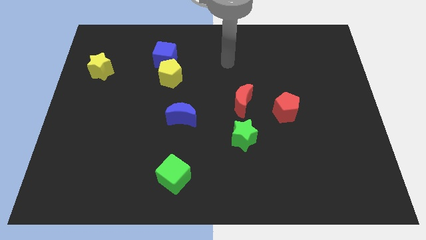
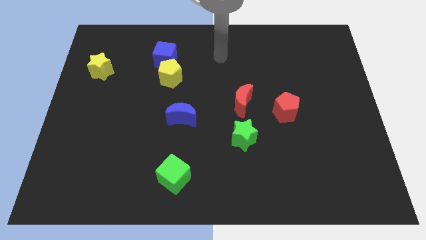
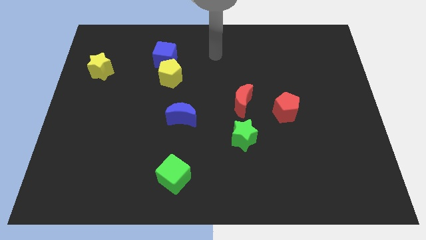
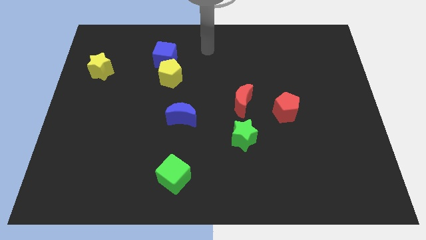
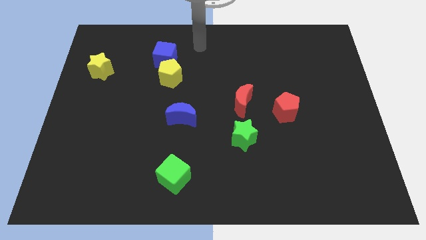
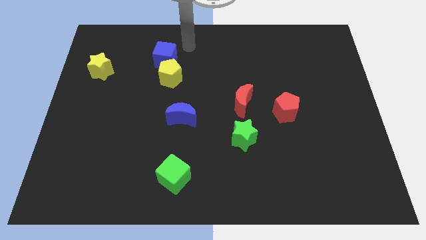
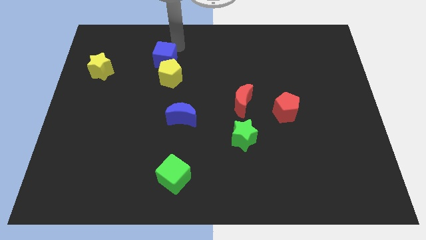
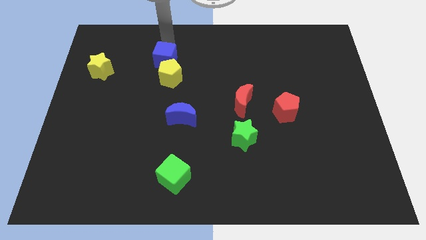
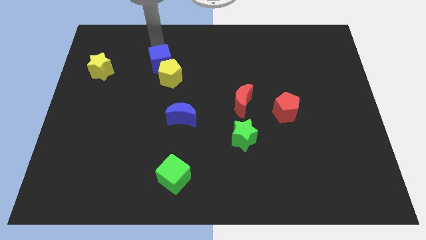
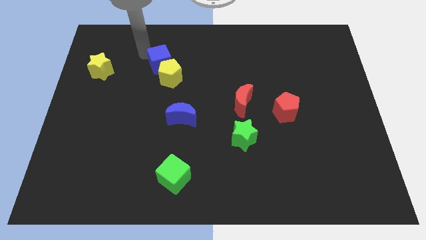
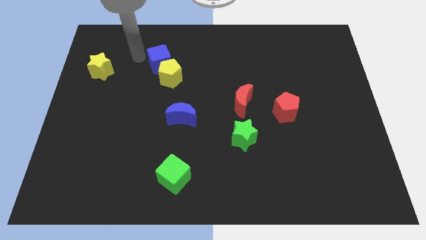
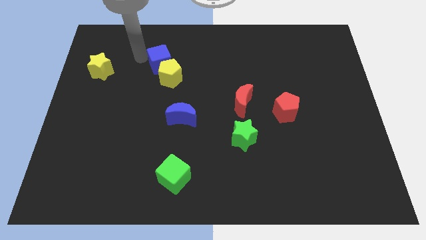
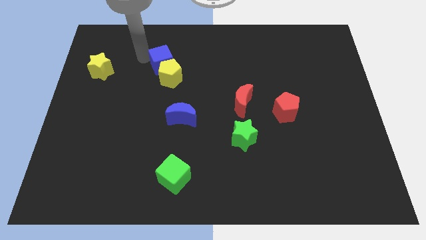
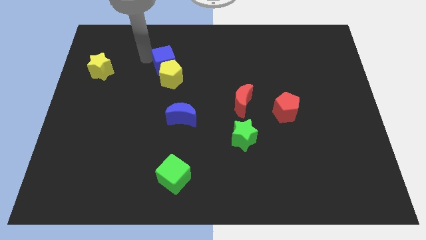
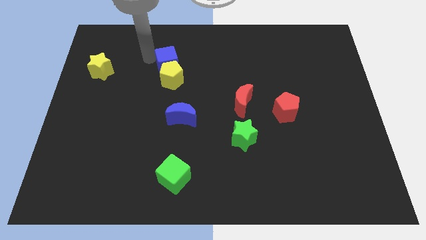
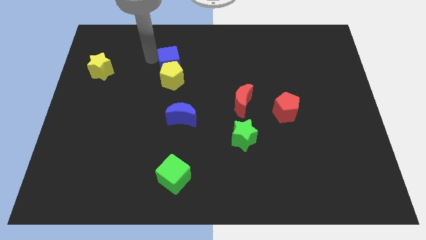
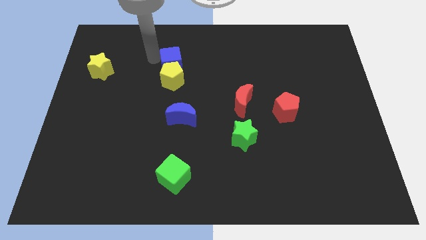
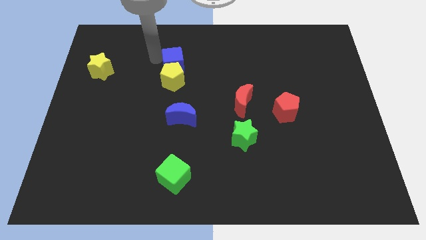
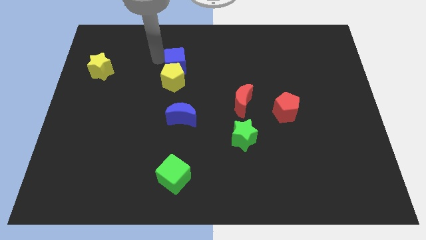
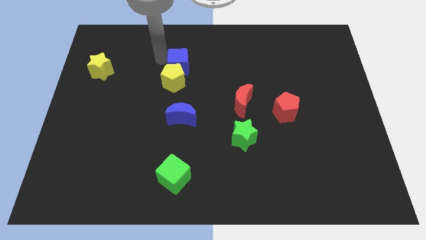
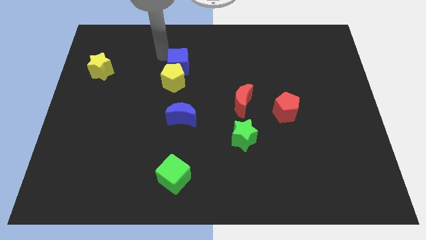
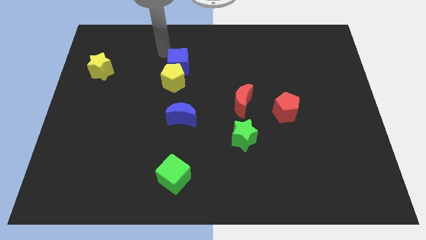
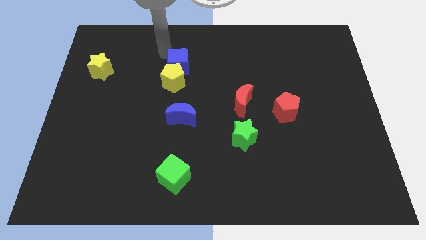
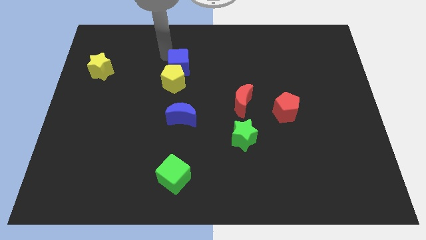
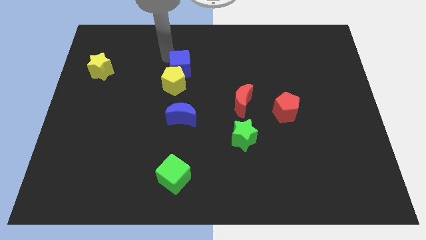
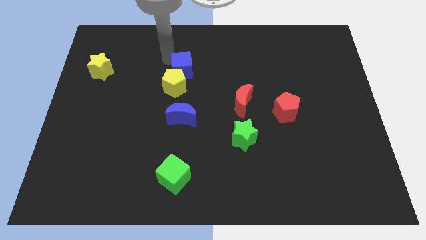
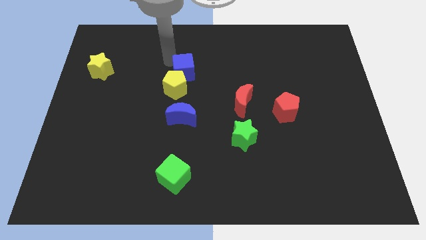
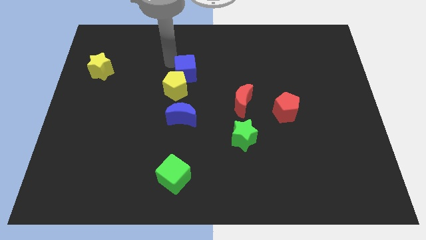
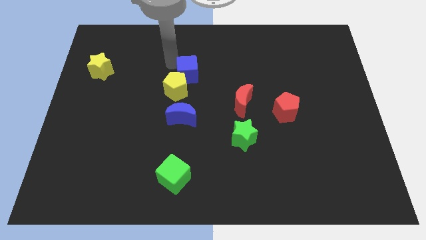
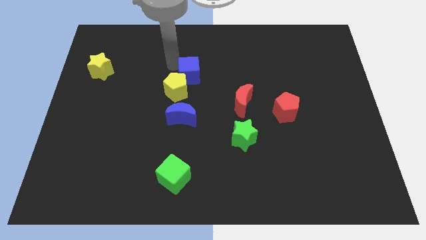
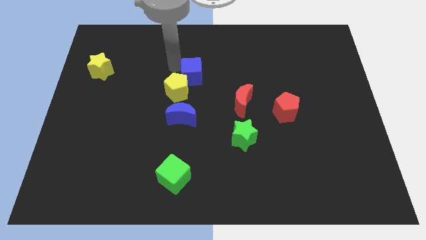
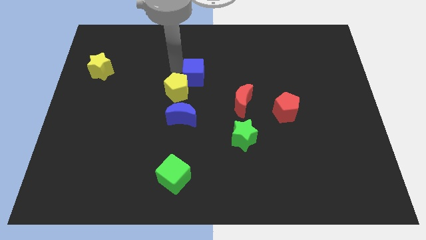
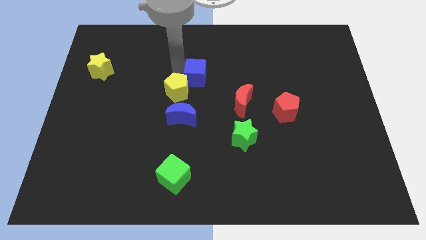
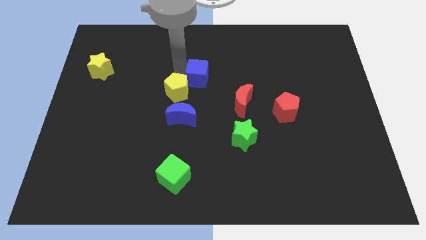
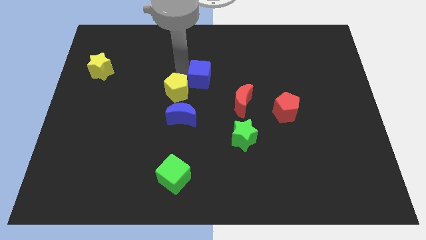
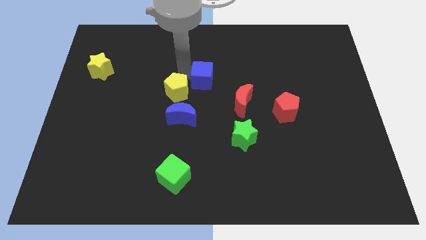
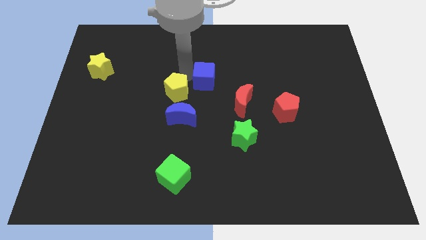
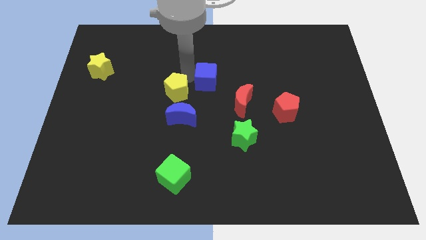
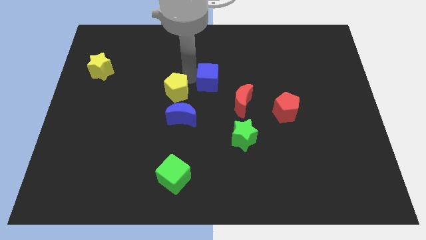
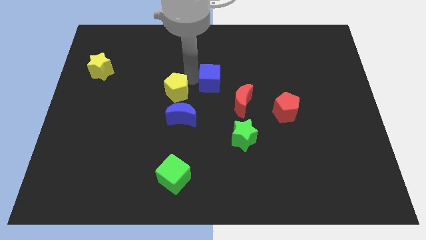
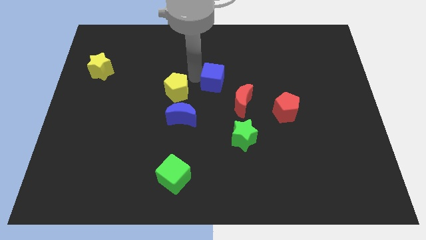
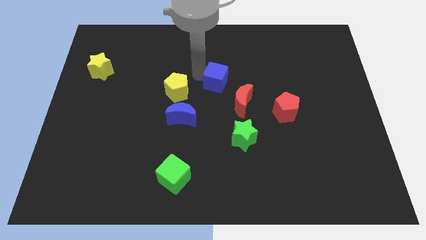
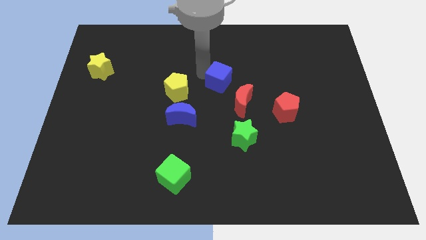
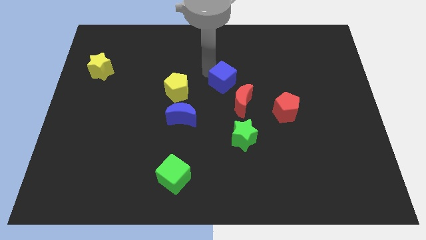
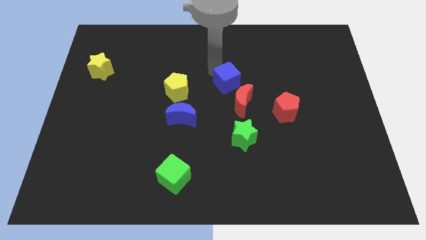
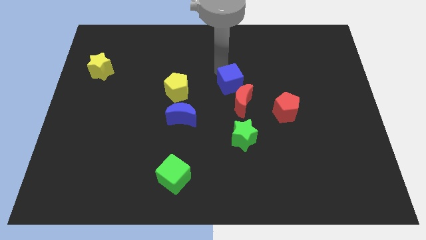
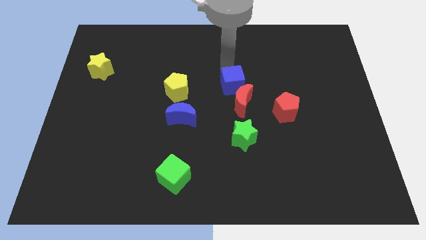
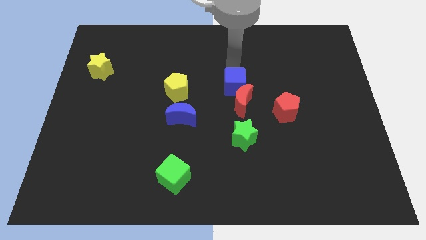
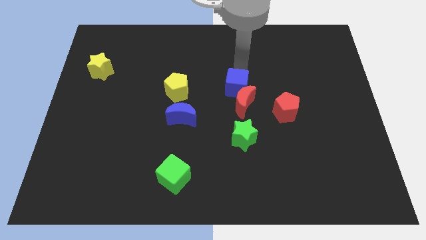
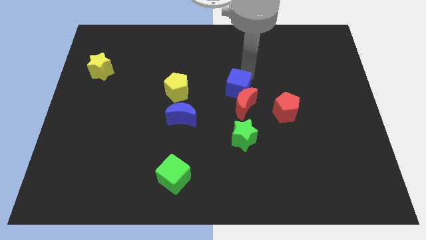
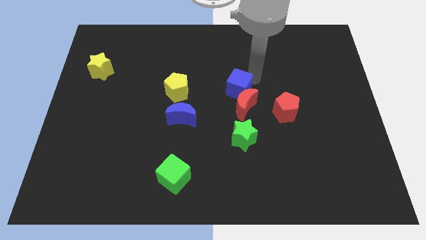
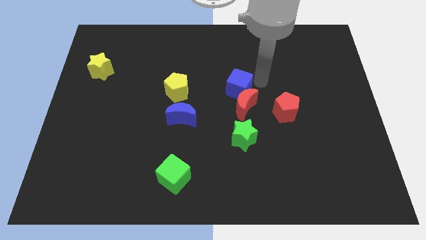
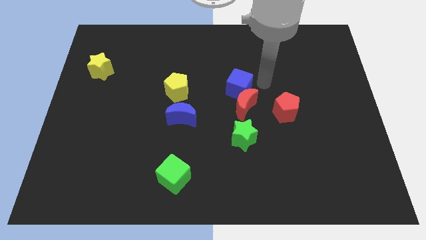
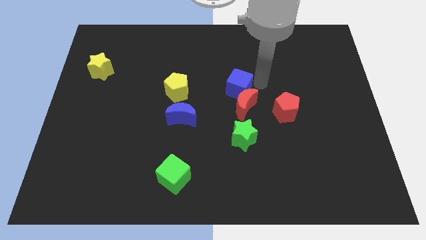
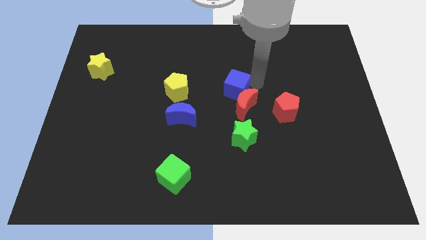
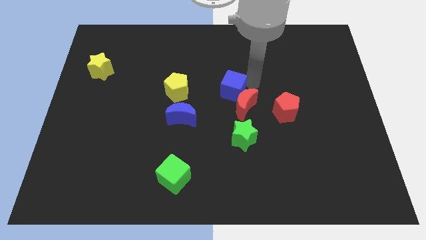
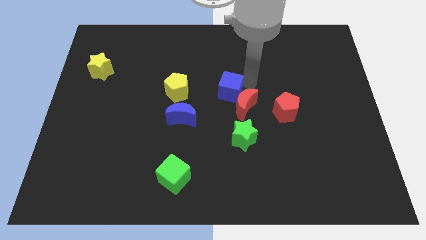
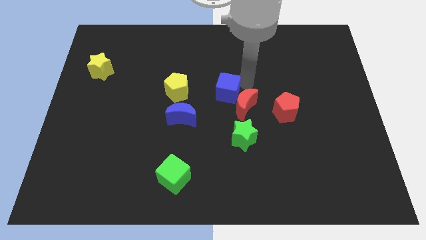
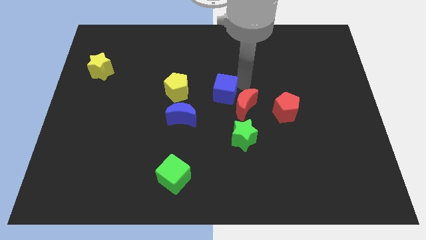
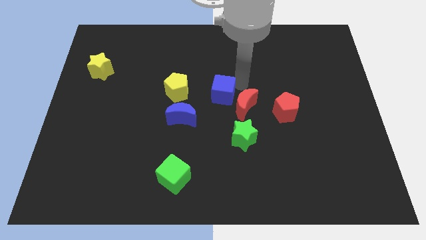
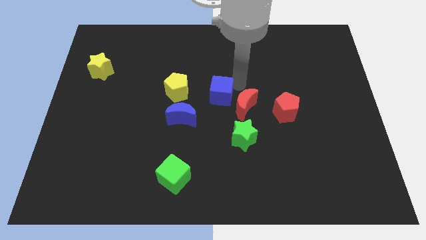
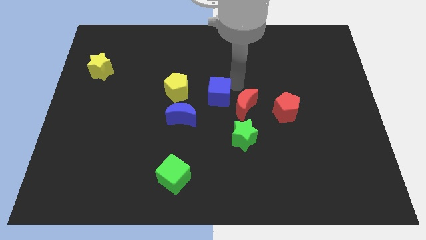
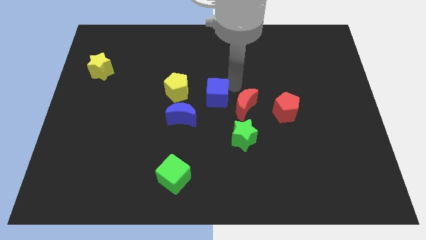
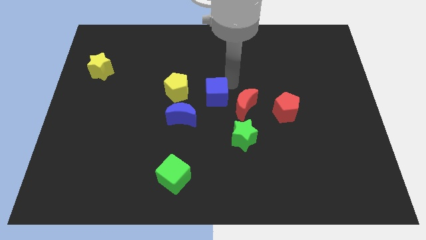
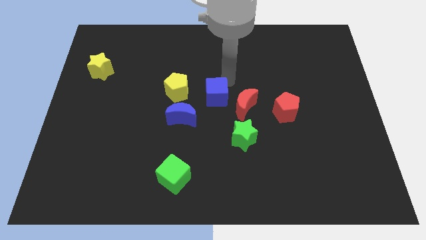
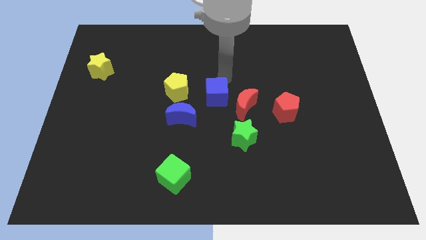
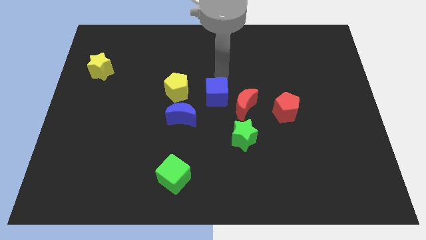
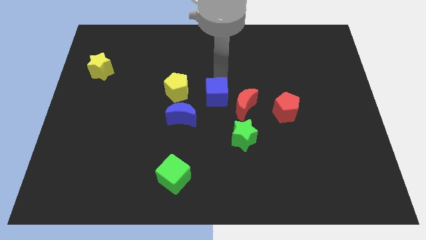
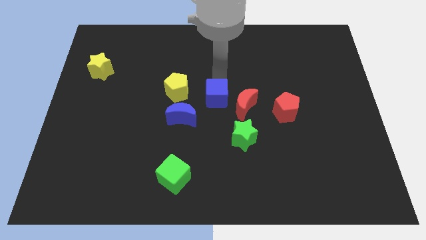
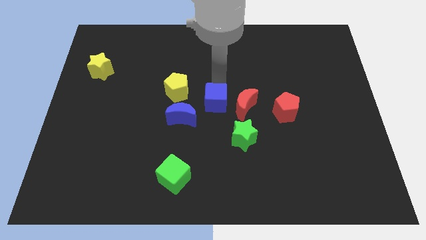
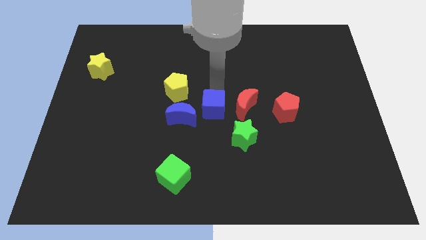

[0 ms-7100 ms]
push the blue cube diagonally down and to the right

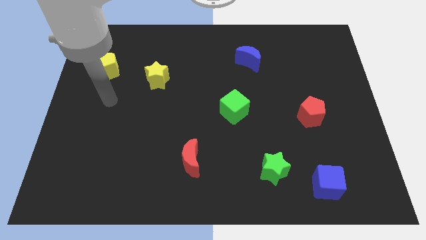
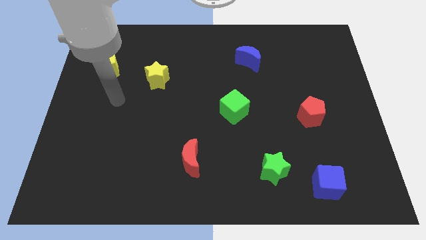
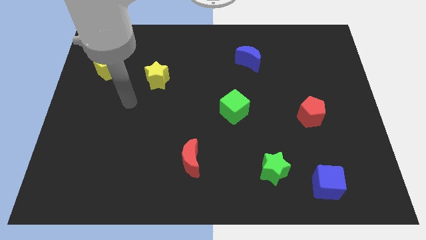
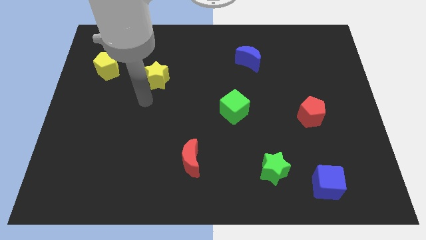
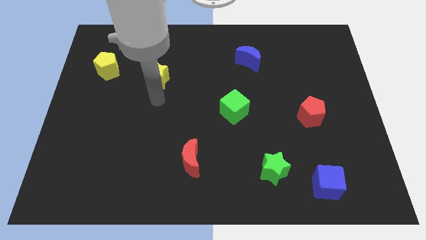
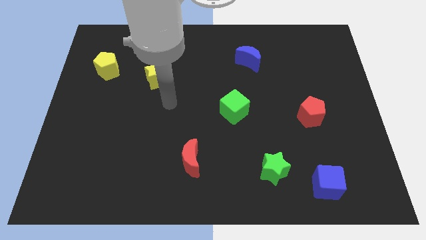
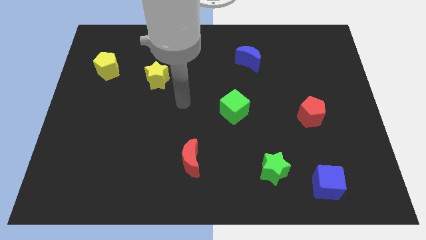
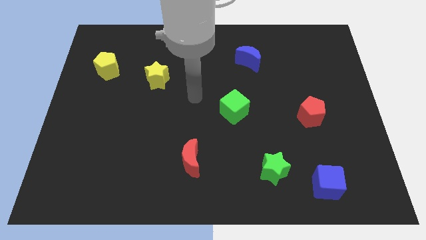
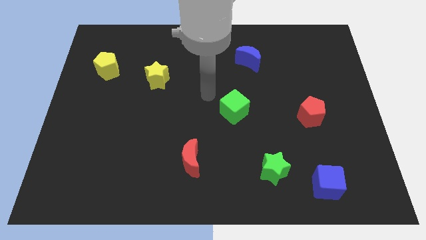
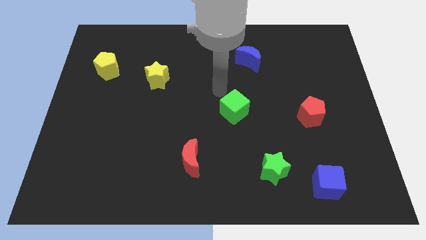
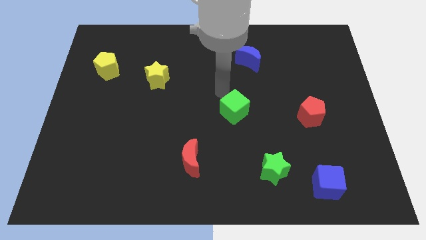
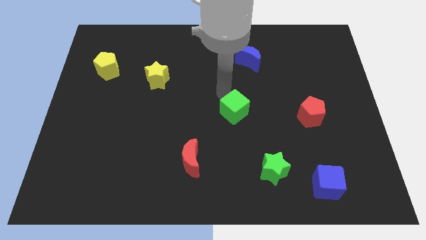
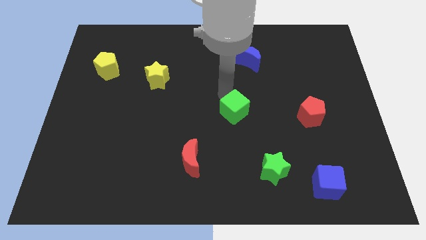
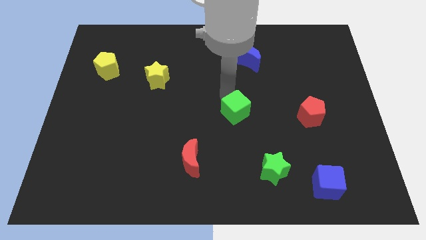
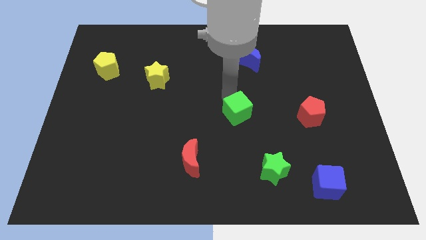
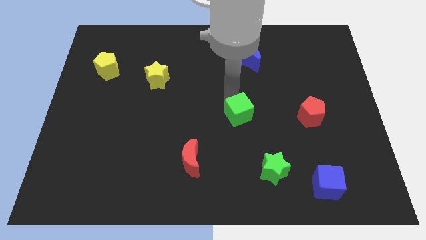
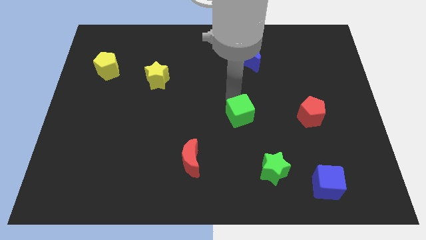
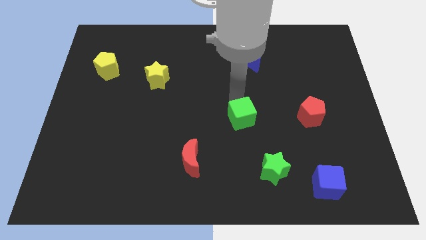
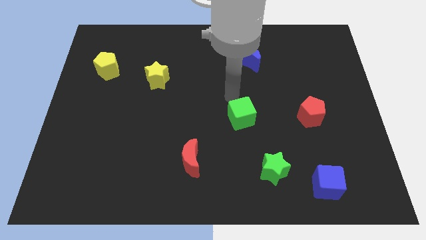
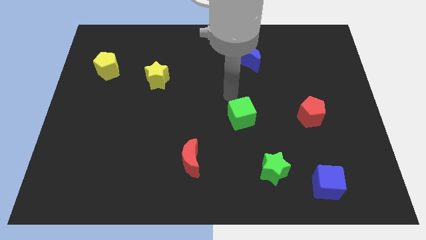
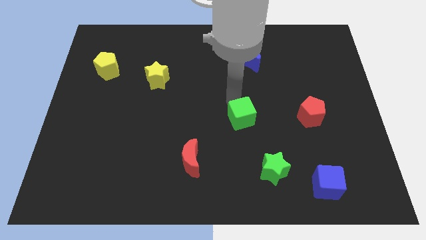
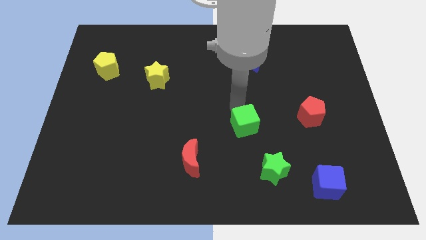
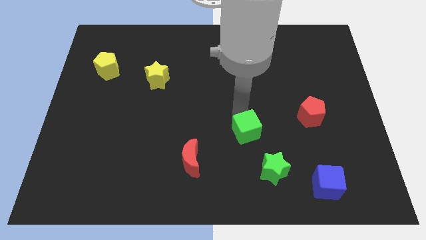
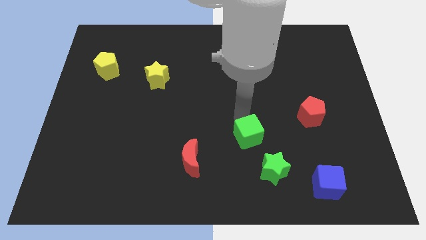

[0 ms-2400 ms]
slightly slide the green cube diagonally down and to the right
